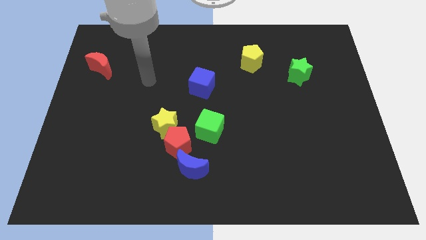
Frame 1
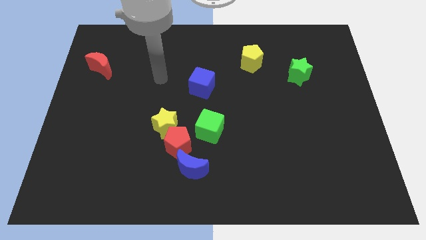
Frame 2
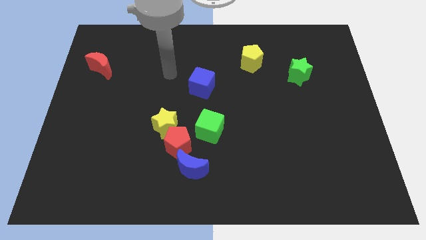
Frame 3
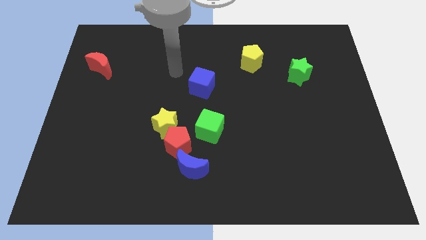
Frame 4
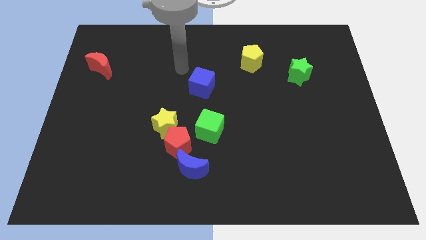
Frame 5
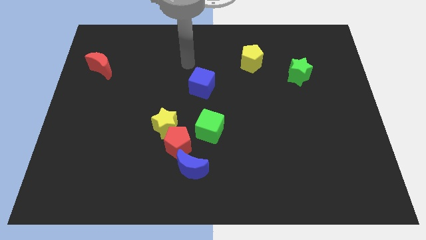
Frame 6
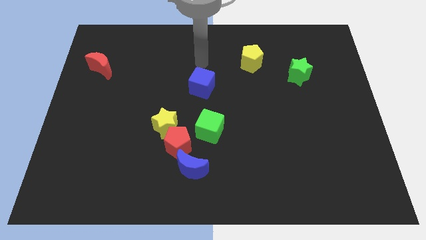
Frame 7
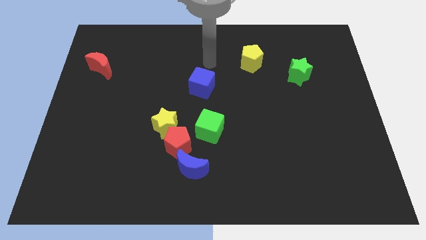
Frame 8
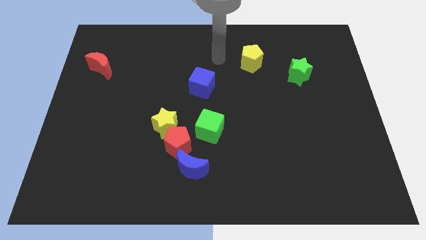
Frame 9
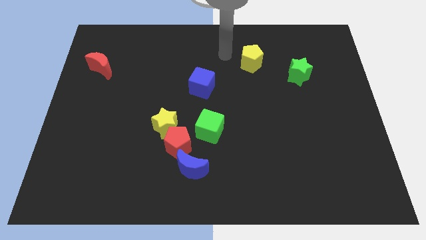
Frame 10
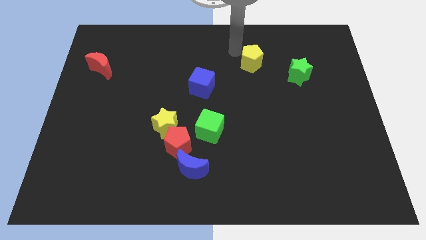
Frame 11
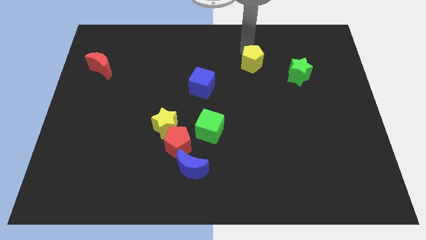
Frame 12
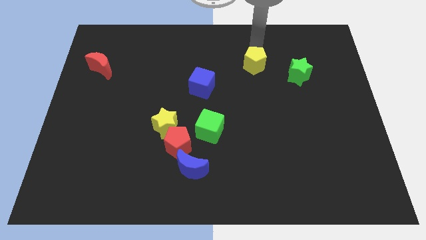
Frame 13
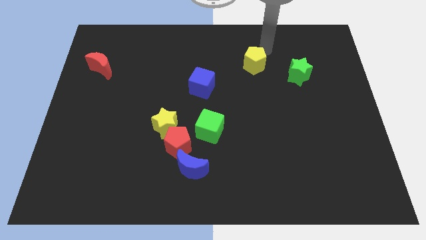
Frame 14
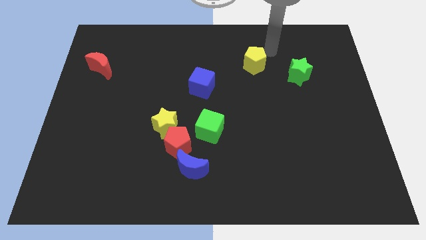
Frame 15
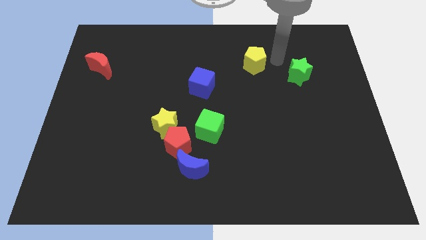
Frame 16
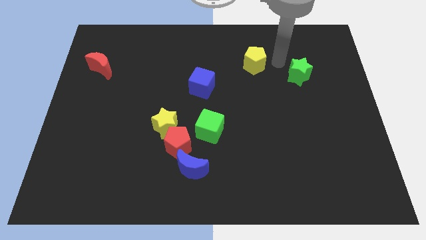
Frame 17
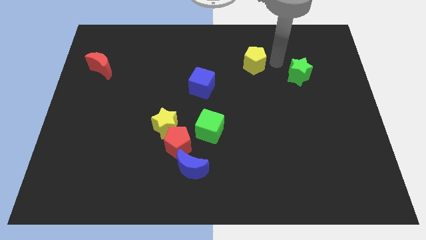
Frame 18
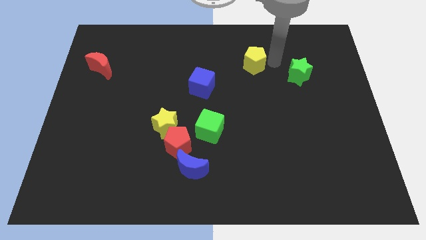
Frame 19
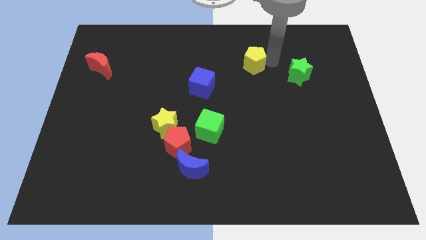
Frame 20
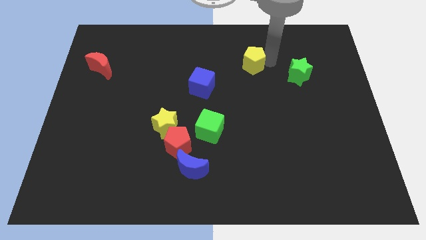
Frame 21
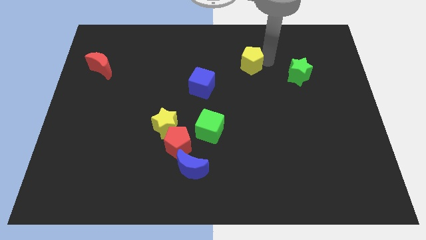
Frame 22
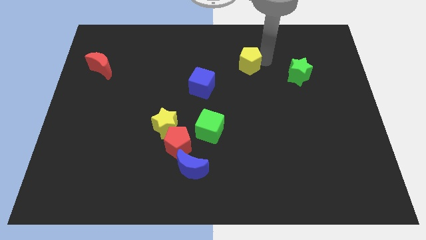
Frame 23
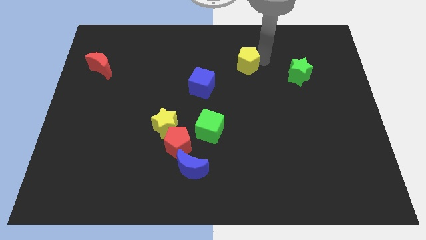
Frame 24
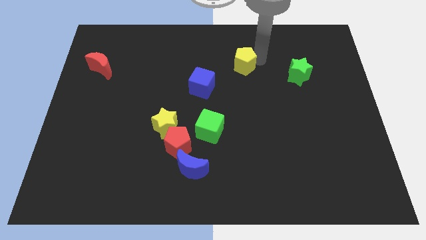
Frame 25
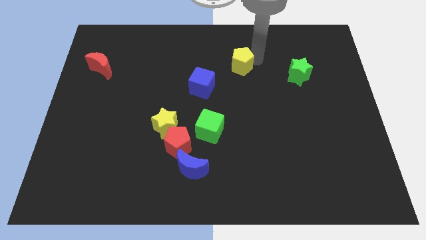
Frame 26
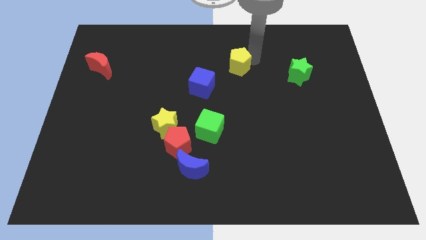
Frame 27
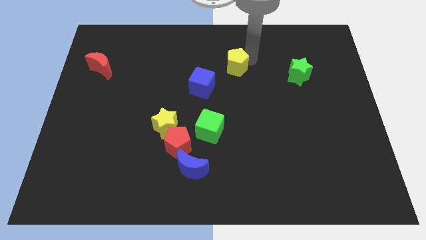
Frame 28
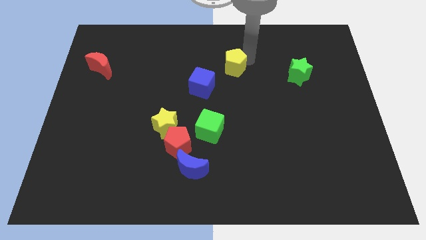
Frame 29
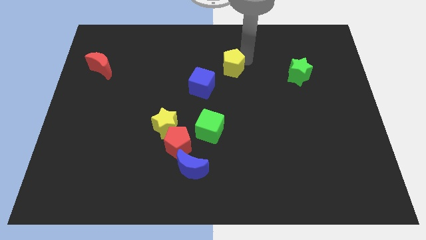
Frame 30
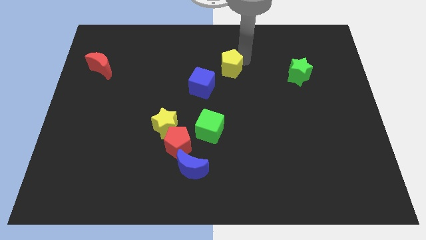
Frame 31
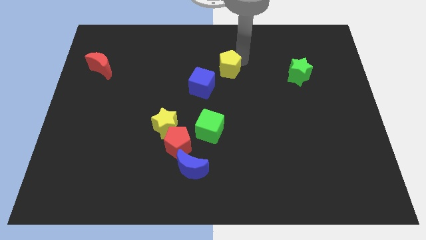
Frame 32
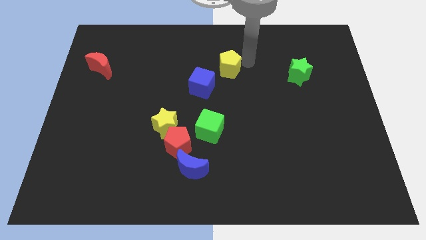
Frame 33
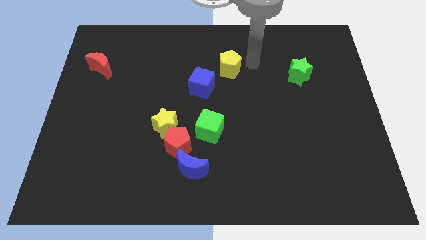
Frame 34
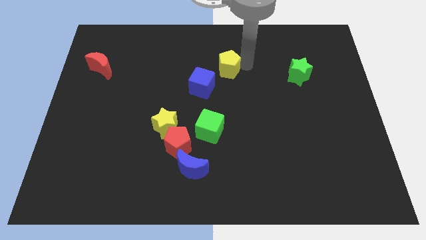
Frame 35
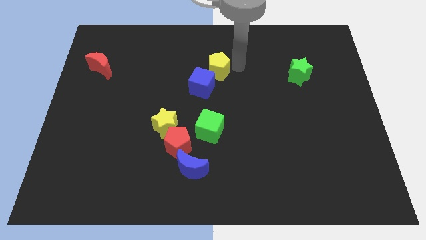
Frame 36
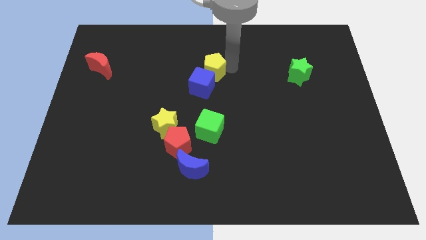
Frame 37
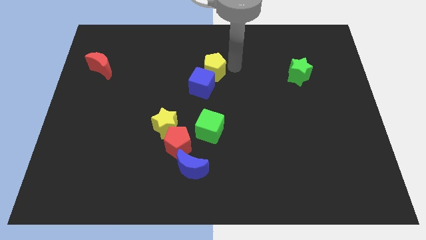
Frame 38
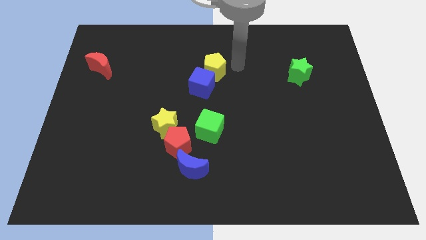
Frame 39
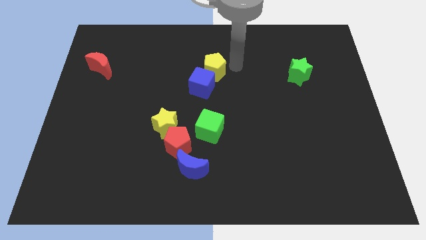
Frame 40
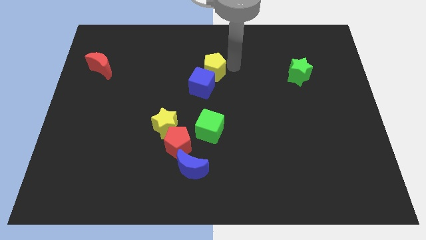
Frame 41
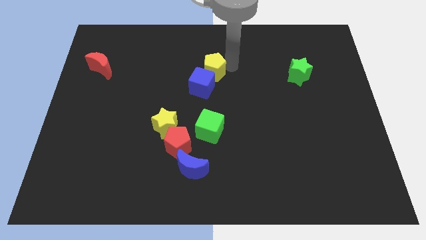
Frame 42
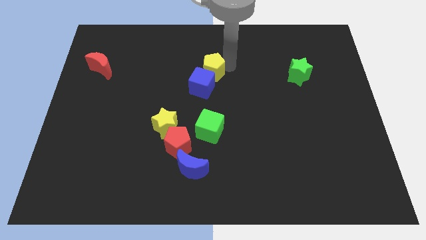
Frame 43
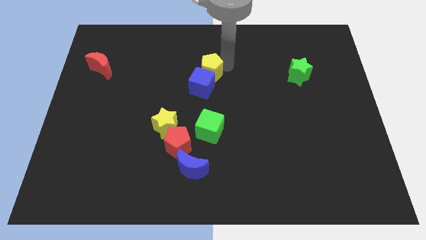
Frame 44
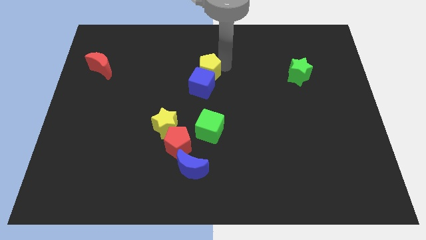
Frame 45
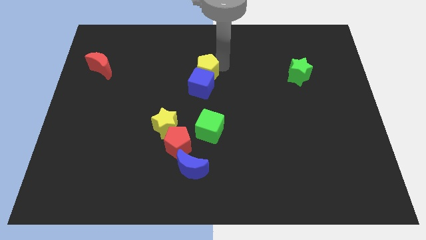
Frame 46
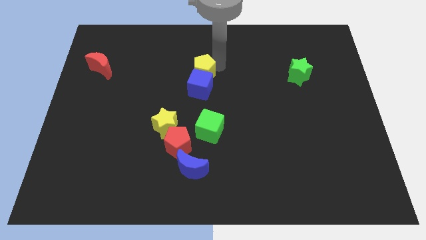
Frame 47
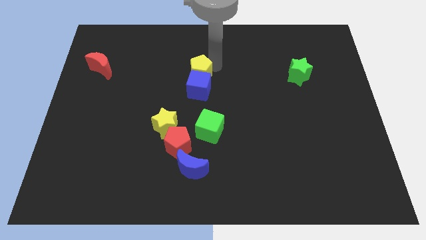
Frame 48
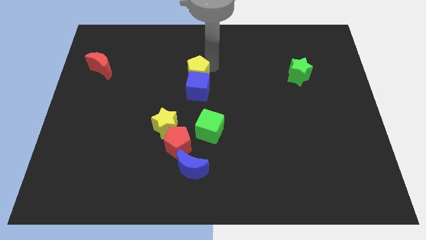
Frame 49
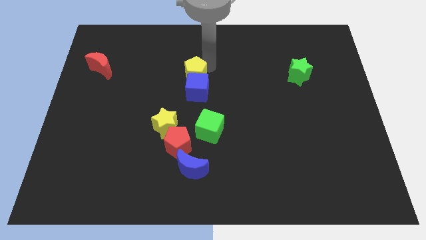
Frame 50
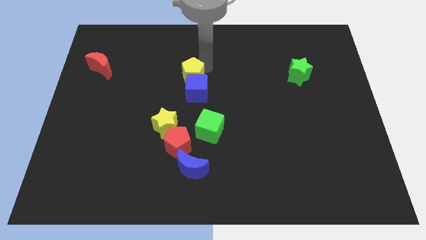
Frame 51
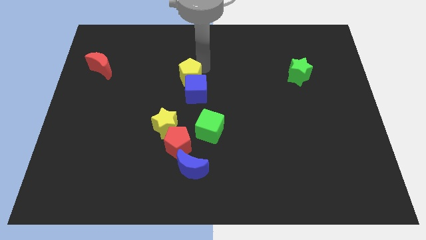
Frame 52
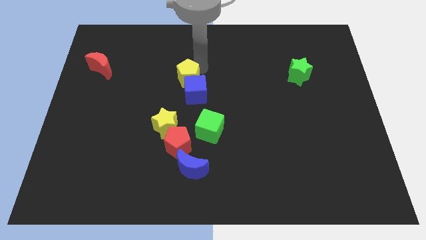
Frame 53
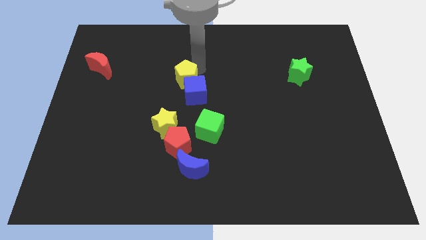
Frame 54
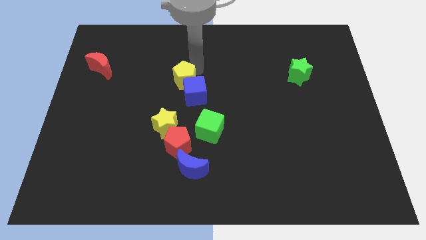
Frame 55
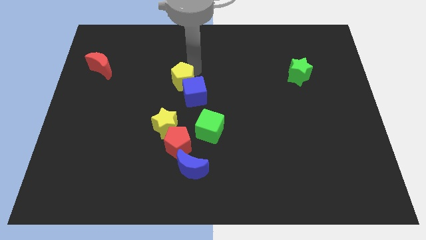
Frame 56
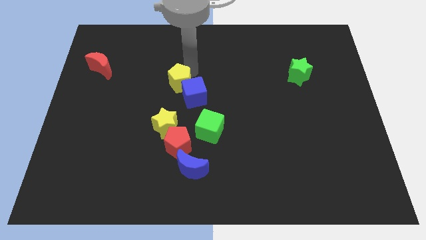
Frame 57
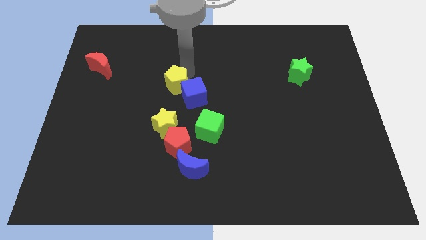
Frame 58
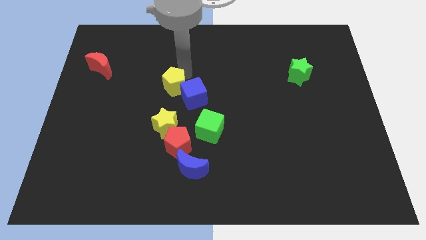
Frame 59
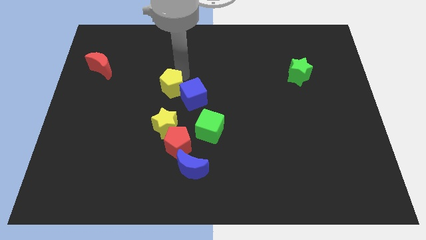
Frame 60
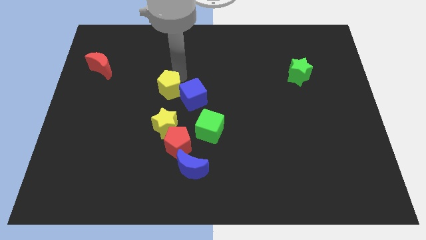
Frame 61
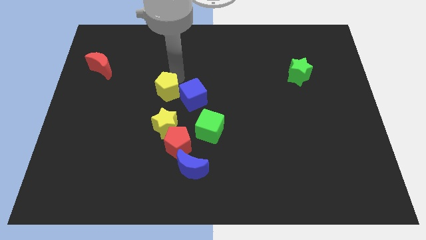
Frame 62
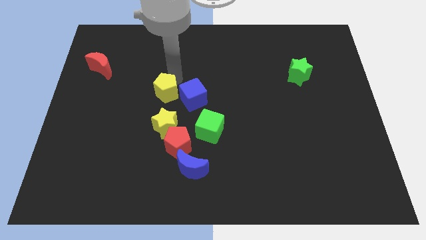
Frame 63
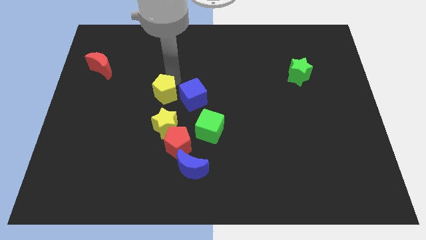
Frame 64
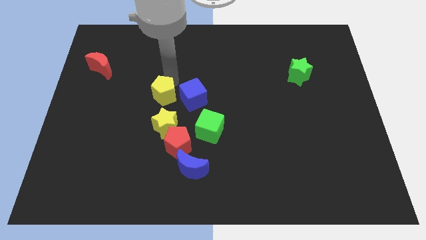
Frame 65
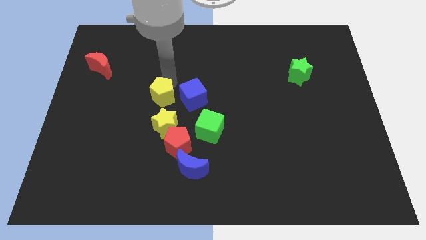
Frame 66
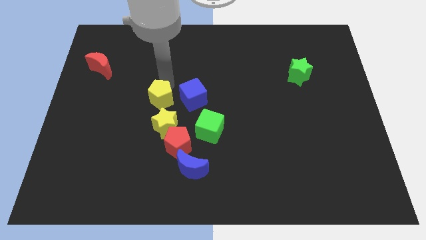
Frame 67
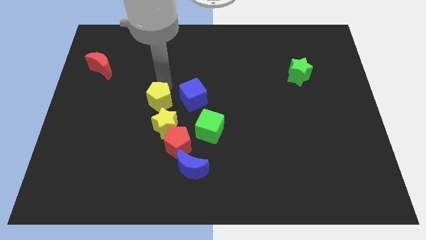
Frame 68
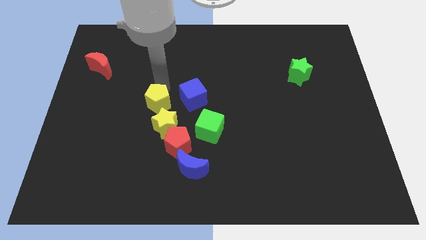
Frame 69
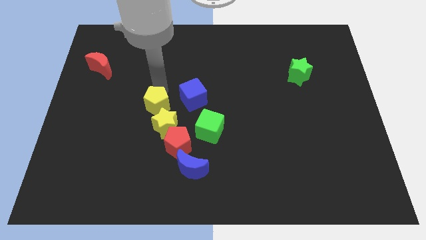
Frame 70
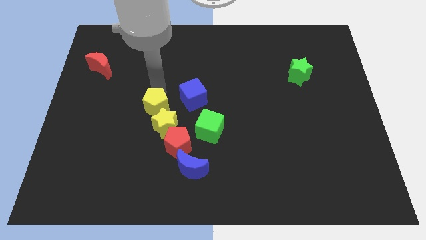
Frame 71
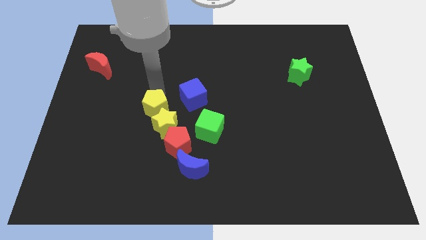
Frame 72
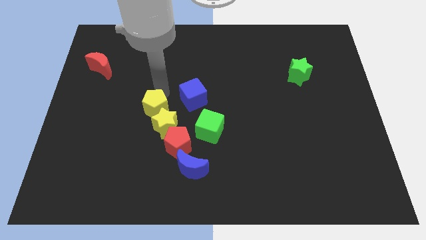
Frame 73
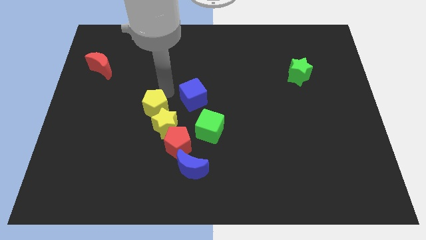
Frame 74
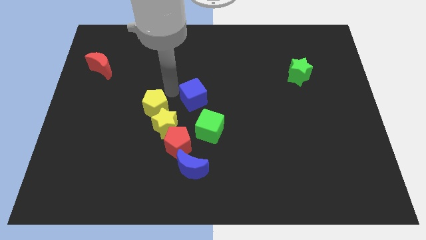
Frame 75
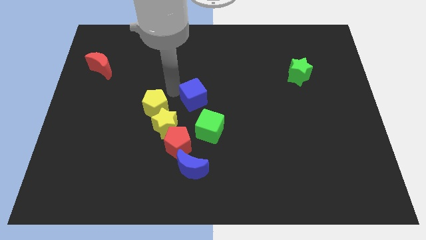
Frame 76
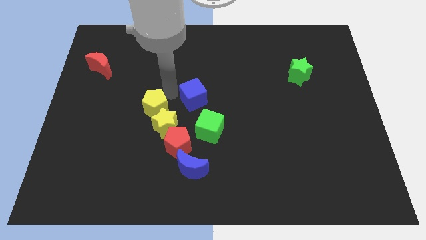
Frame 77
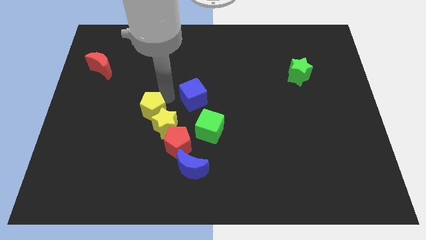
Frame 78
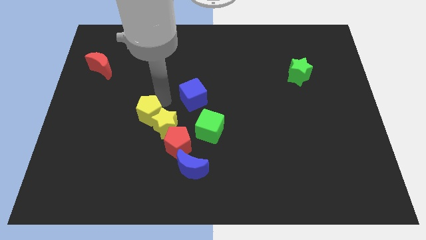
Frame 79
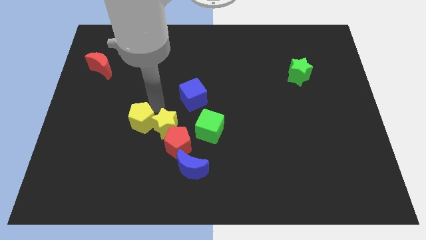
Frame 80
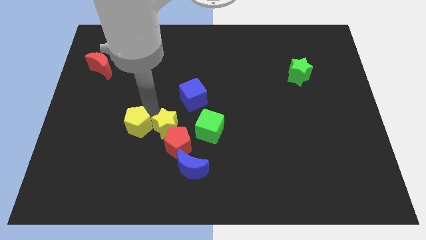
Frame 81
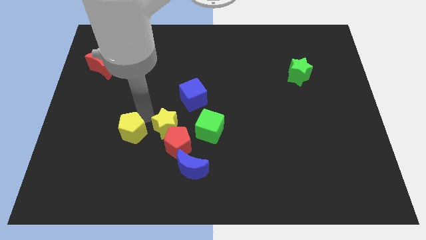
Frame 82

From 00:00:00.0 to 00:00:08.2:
push the yellow pentagon left of the red pentagon
